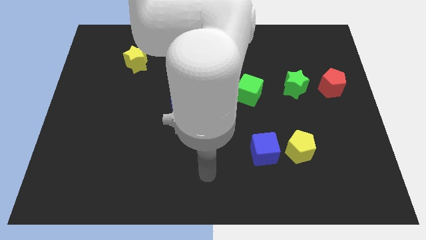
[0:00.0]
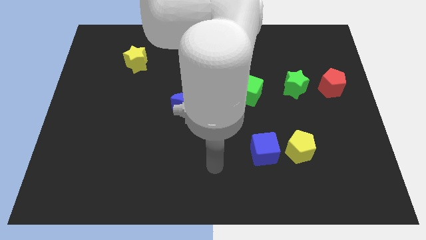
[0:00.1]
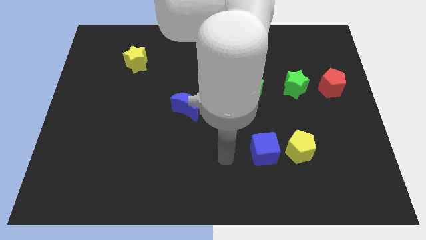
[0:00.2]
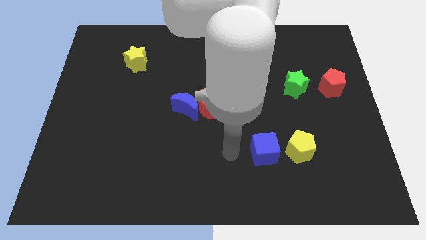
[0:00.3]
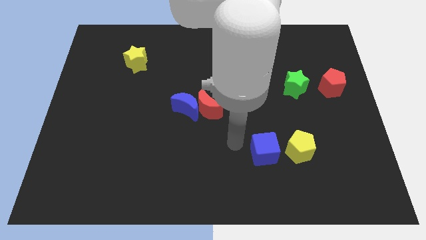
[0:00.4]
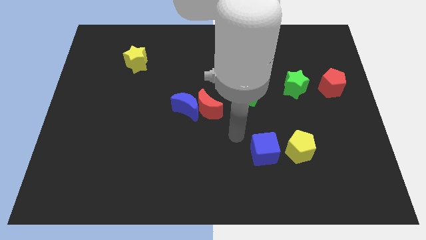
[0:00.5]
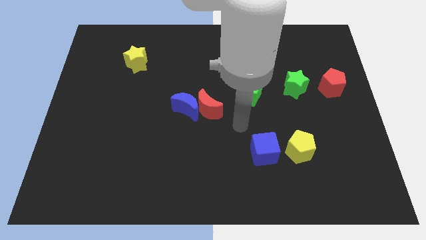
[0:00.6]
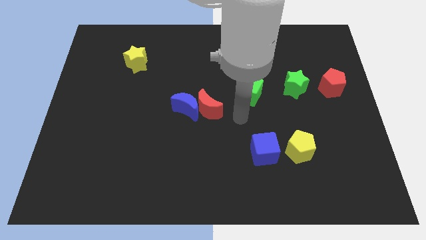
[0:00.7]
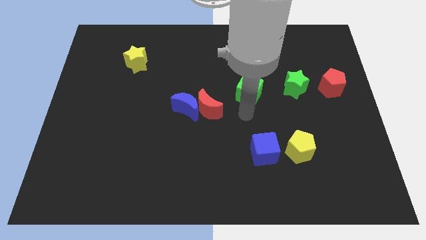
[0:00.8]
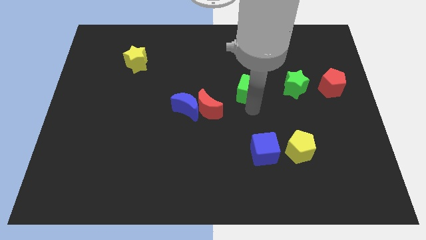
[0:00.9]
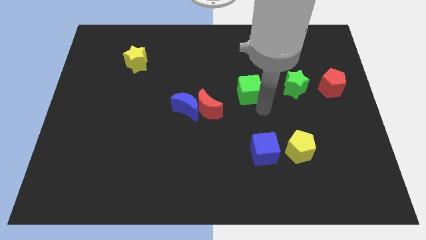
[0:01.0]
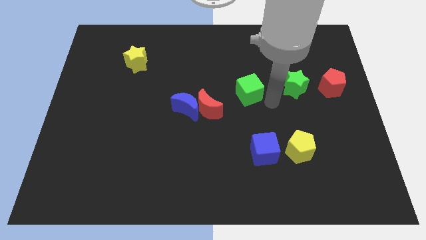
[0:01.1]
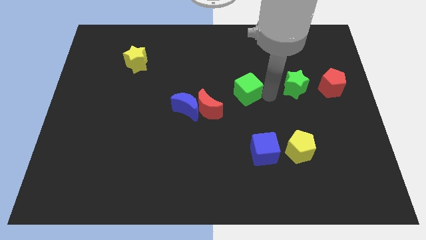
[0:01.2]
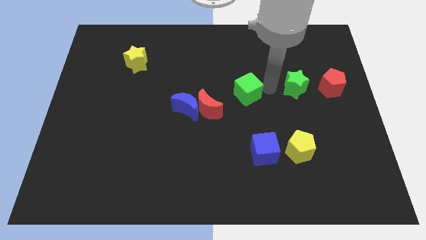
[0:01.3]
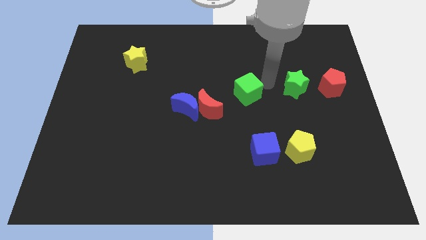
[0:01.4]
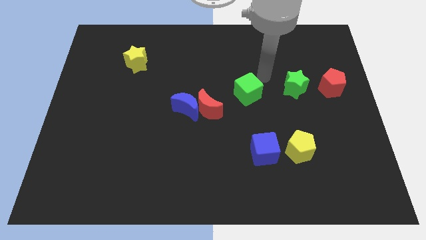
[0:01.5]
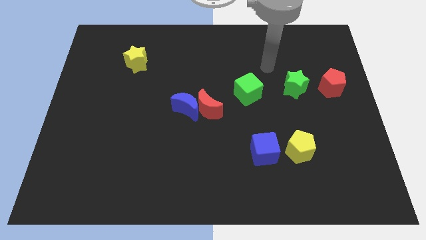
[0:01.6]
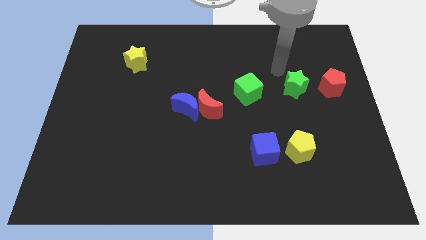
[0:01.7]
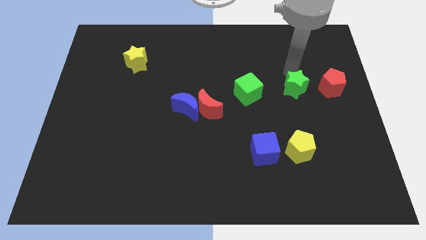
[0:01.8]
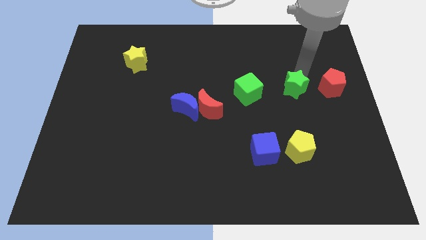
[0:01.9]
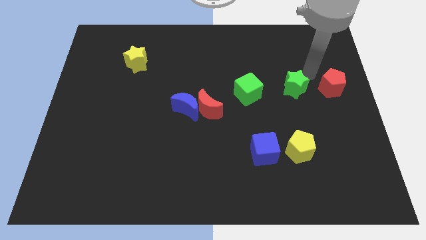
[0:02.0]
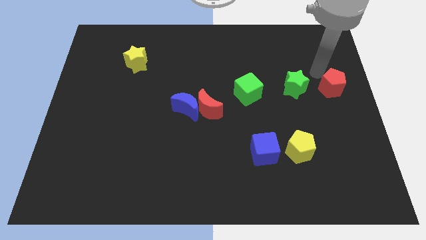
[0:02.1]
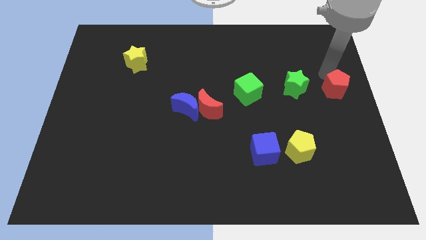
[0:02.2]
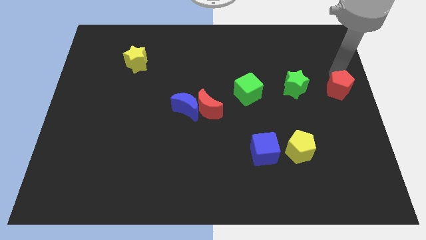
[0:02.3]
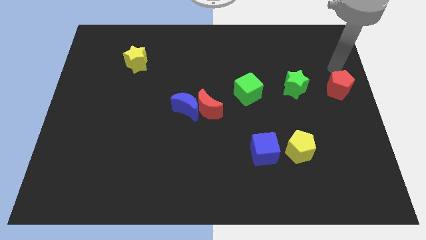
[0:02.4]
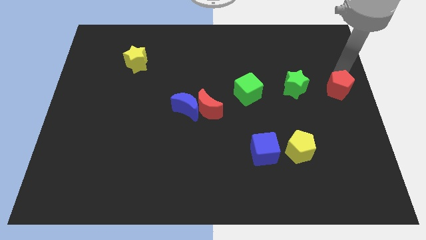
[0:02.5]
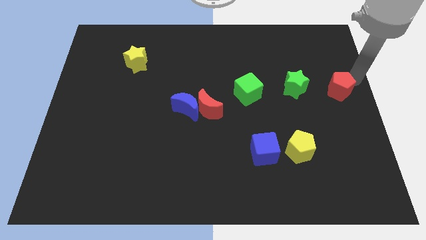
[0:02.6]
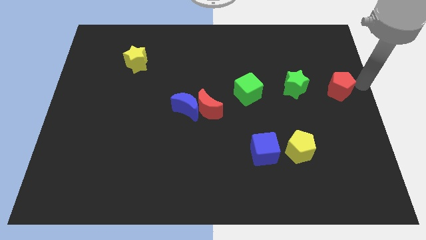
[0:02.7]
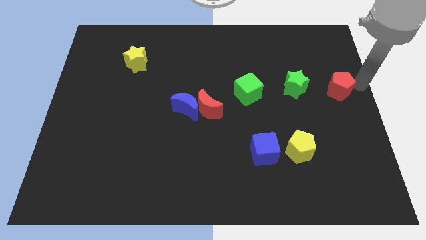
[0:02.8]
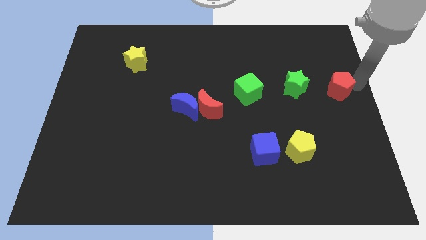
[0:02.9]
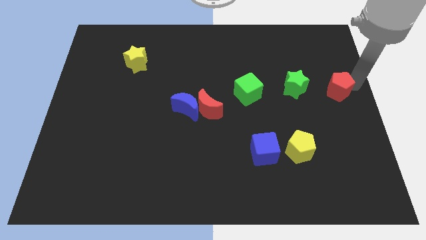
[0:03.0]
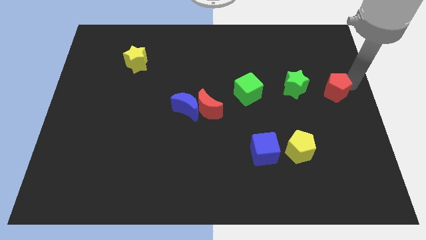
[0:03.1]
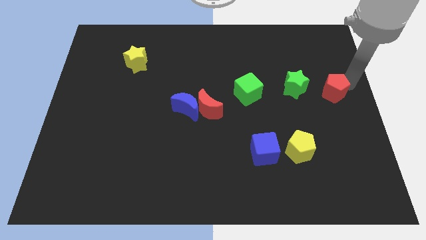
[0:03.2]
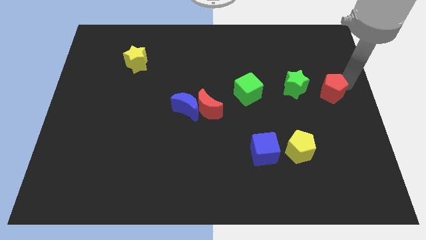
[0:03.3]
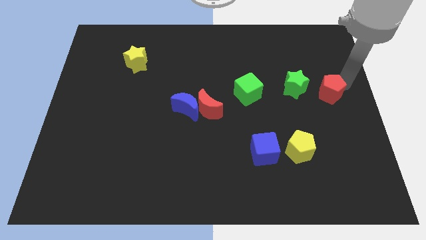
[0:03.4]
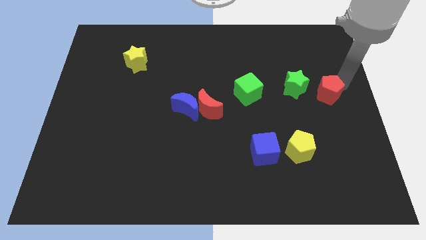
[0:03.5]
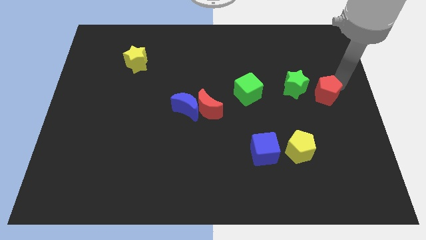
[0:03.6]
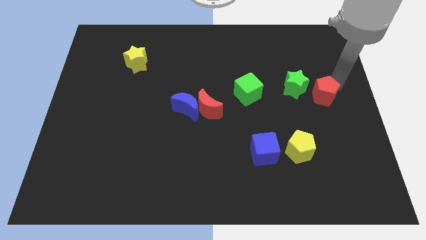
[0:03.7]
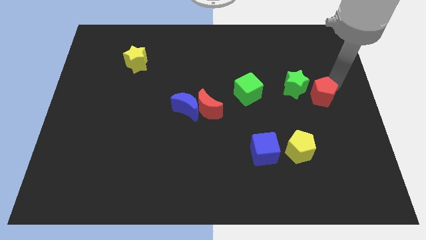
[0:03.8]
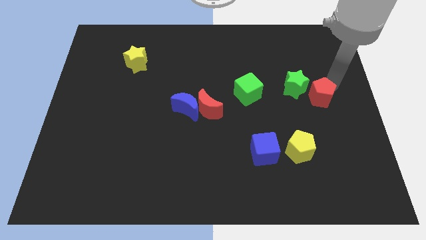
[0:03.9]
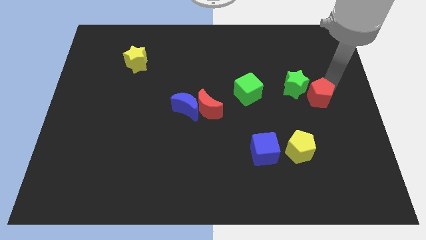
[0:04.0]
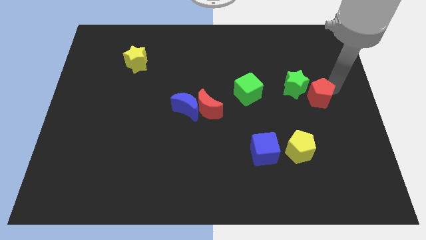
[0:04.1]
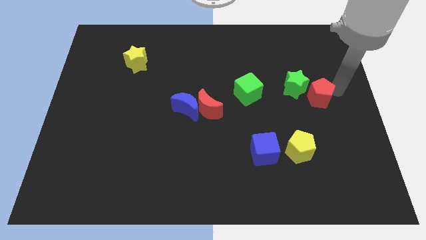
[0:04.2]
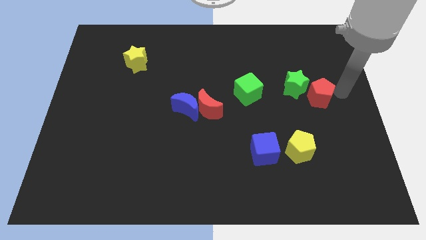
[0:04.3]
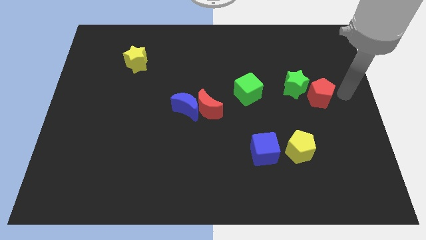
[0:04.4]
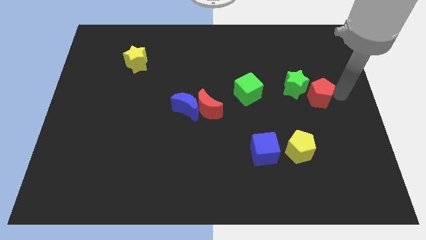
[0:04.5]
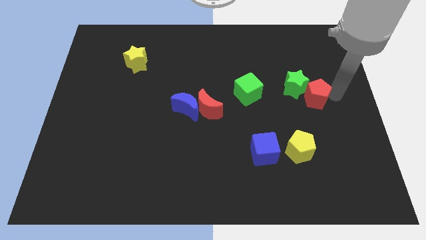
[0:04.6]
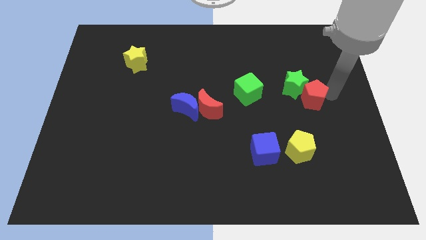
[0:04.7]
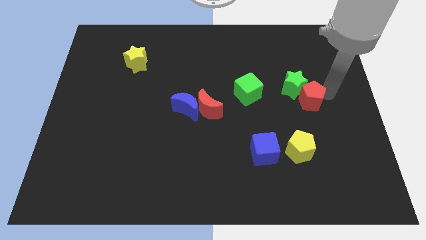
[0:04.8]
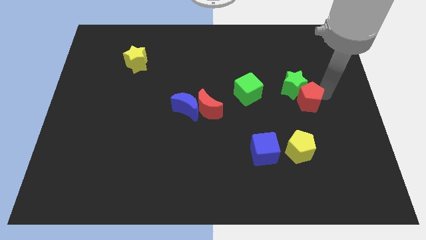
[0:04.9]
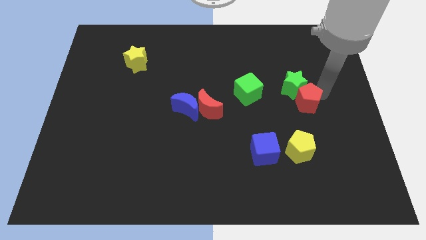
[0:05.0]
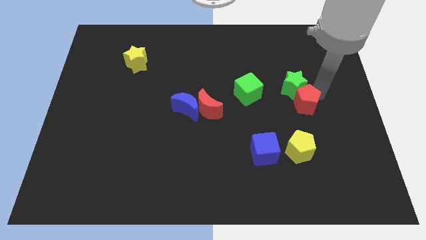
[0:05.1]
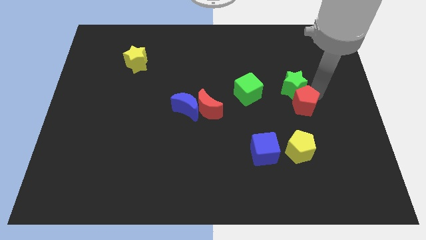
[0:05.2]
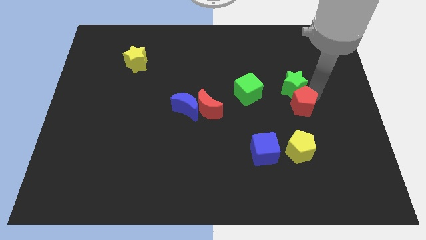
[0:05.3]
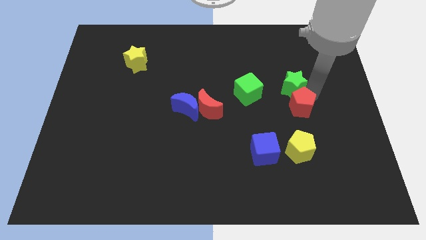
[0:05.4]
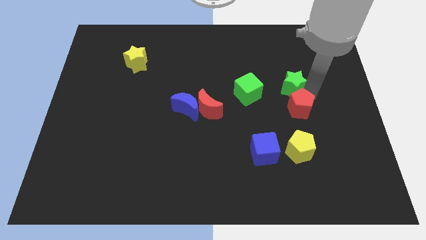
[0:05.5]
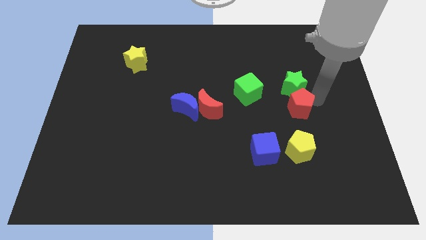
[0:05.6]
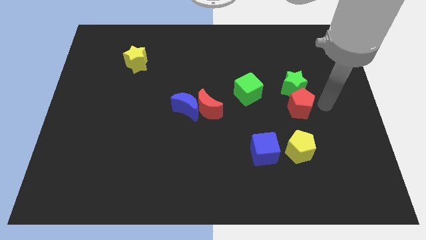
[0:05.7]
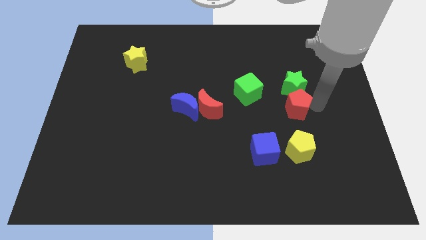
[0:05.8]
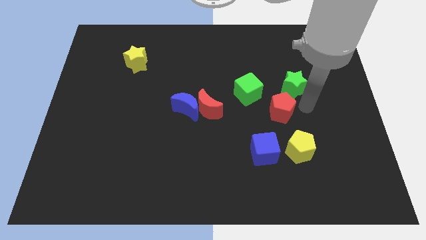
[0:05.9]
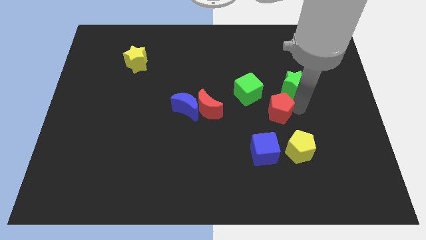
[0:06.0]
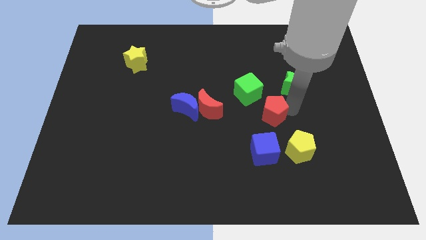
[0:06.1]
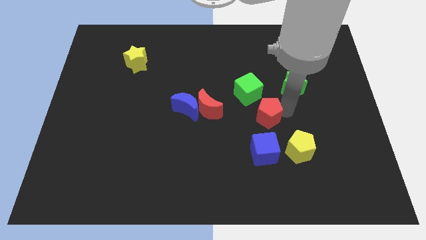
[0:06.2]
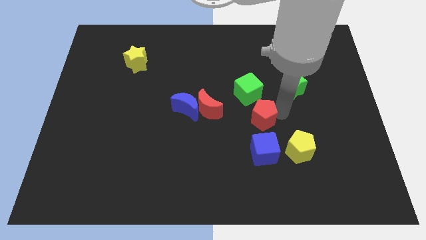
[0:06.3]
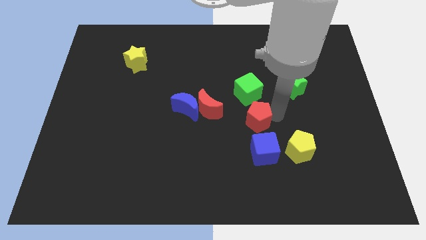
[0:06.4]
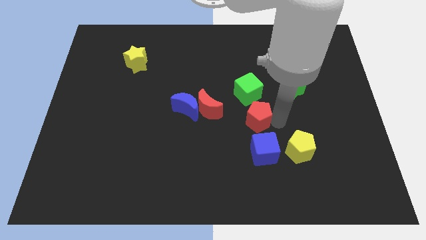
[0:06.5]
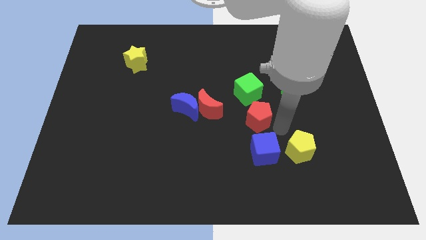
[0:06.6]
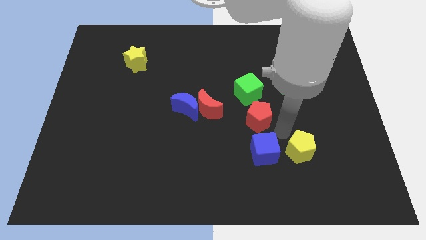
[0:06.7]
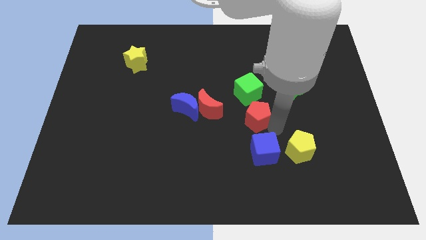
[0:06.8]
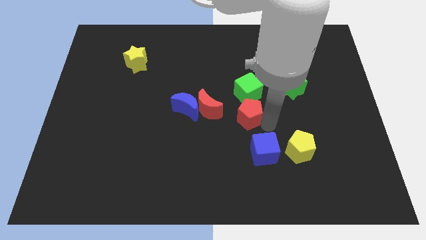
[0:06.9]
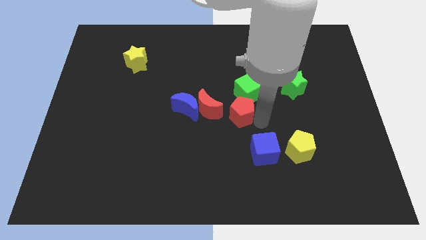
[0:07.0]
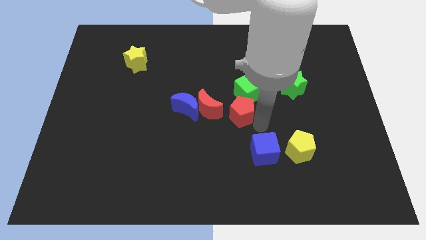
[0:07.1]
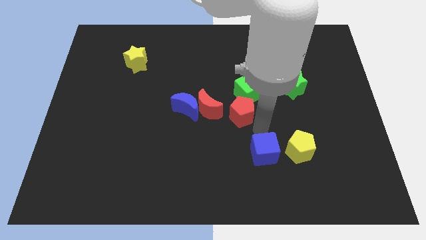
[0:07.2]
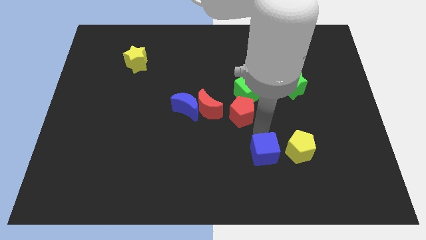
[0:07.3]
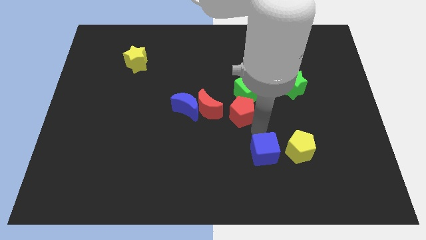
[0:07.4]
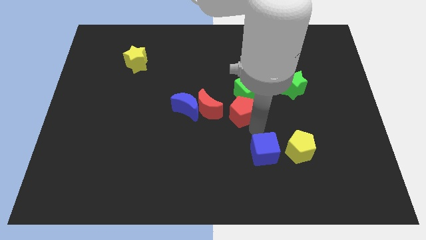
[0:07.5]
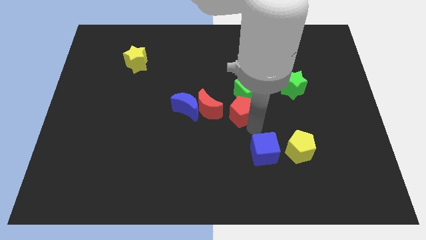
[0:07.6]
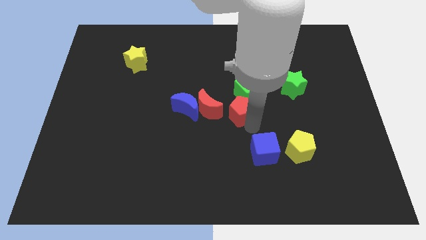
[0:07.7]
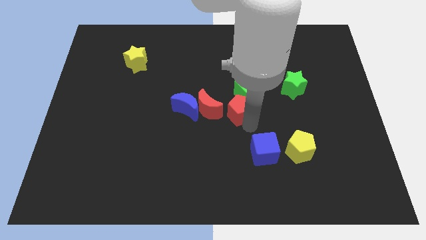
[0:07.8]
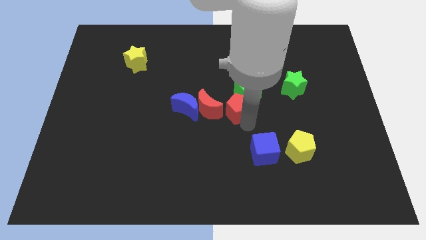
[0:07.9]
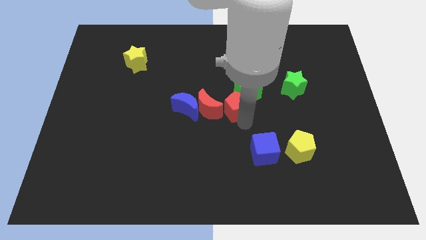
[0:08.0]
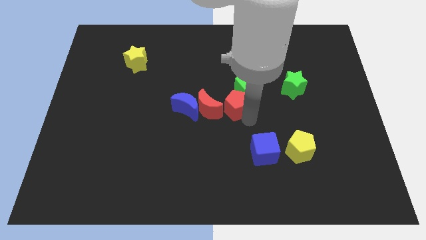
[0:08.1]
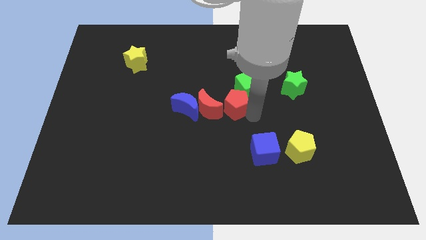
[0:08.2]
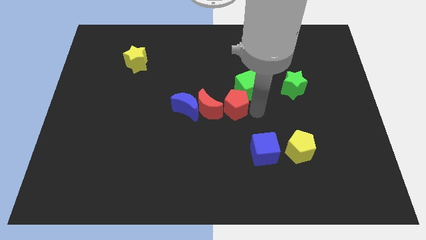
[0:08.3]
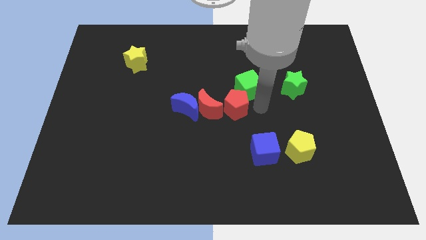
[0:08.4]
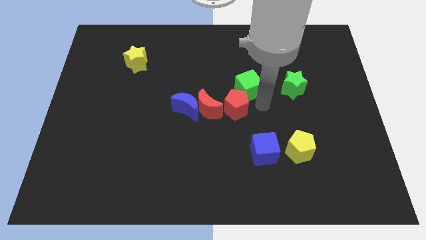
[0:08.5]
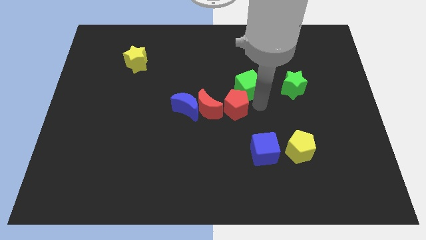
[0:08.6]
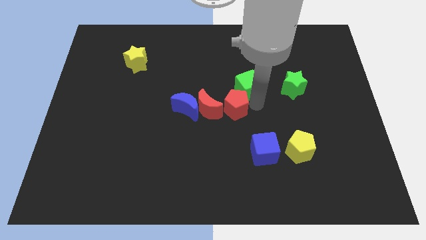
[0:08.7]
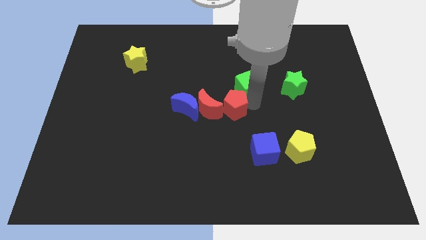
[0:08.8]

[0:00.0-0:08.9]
move the red pentagon to the red moon
